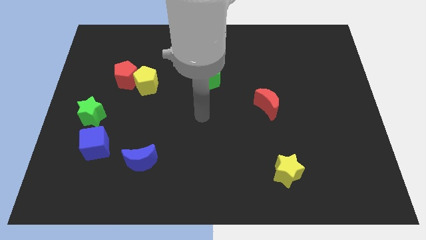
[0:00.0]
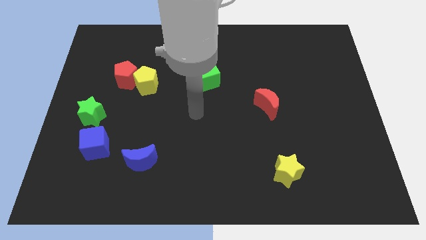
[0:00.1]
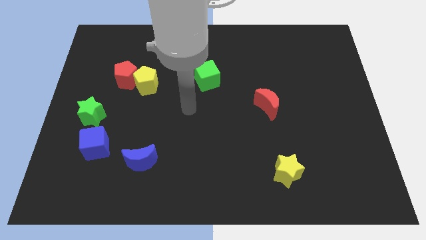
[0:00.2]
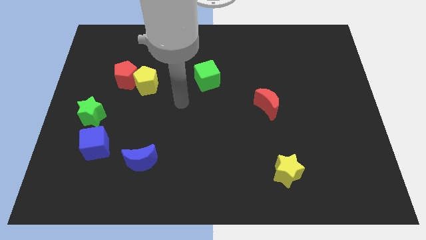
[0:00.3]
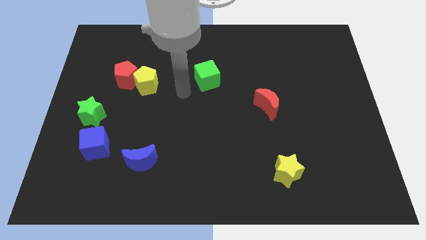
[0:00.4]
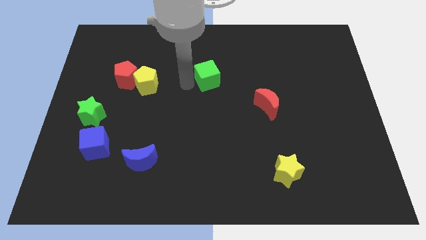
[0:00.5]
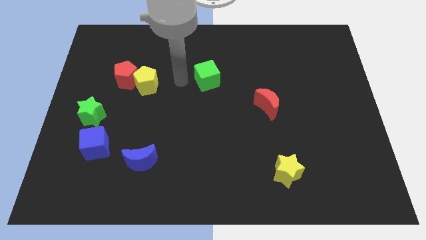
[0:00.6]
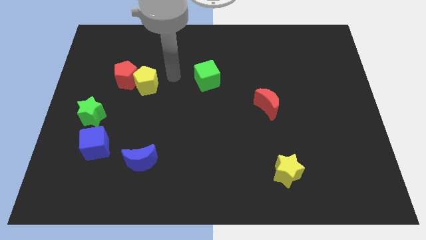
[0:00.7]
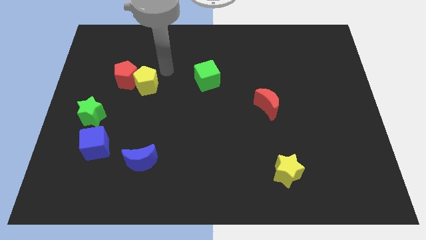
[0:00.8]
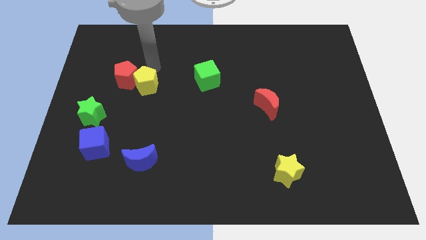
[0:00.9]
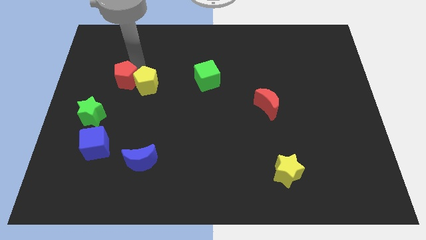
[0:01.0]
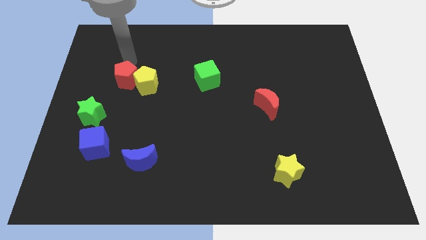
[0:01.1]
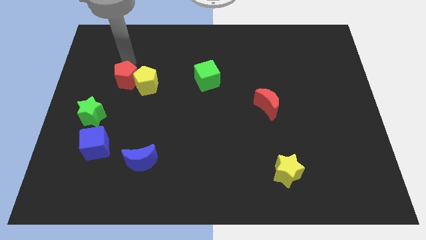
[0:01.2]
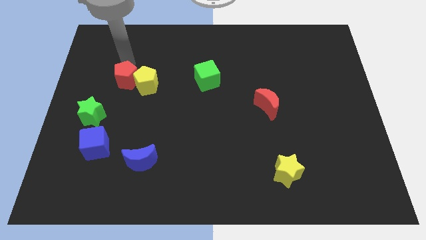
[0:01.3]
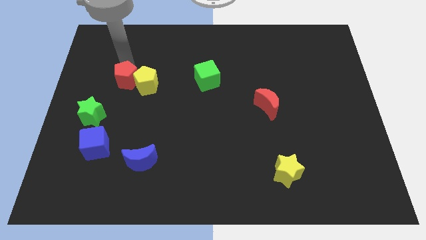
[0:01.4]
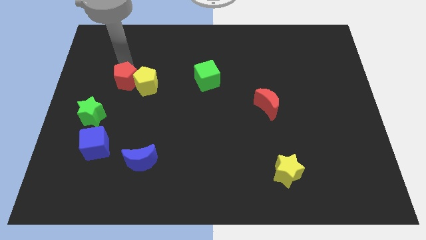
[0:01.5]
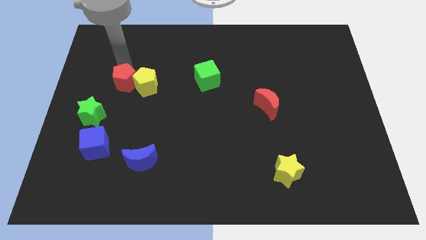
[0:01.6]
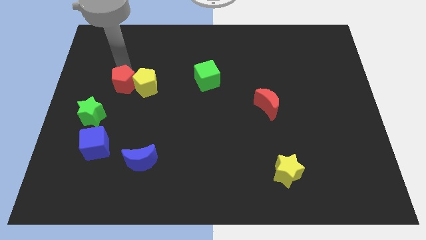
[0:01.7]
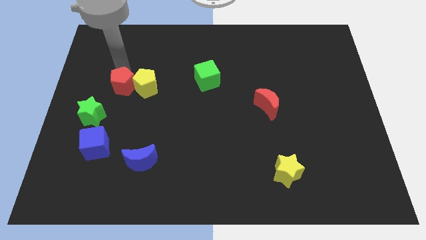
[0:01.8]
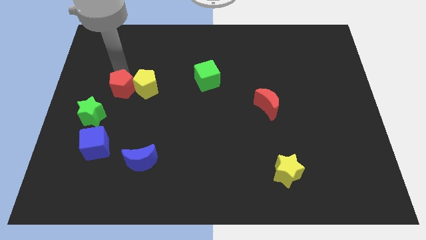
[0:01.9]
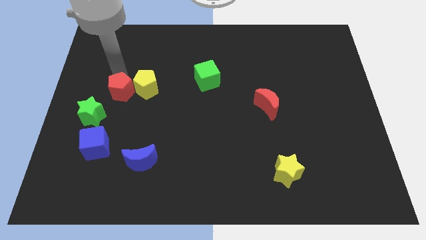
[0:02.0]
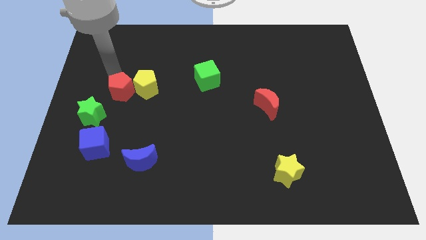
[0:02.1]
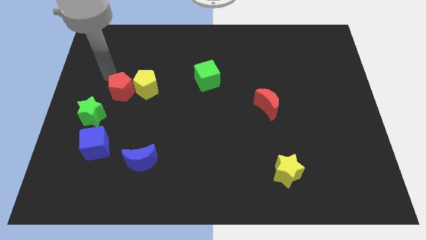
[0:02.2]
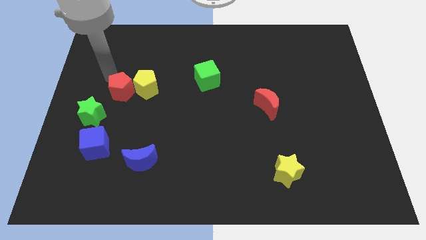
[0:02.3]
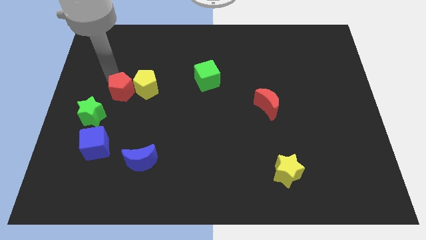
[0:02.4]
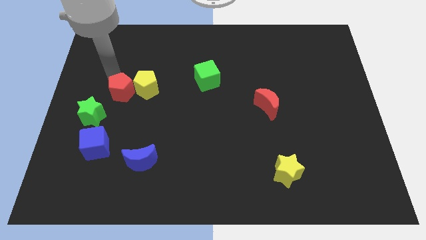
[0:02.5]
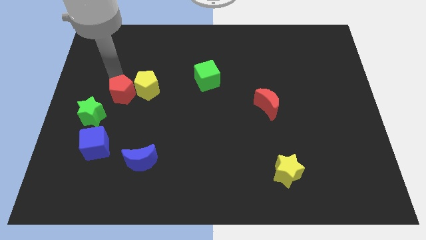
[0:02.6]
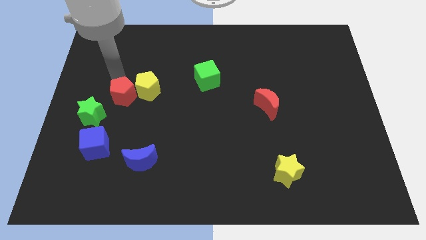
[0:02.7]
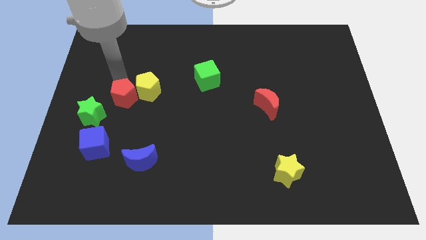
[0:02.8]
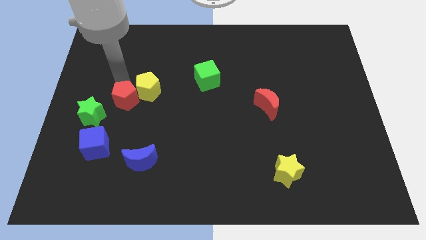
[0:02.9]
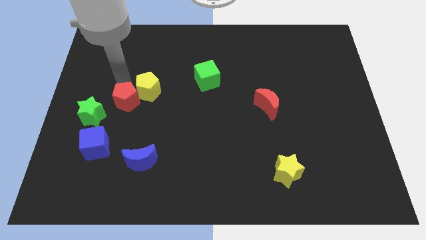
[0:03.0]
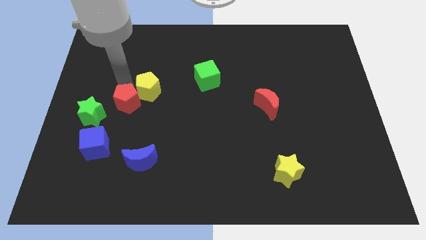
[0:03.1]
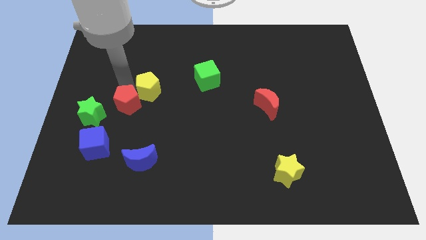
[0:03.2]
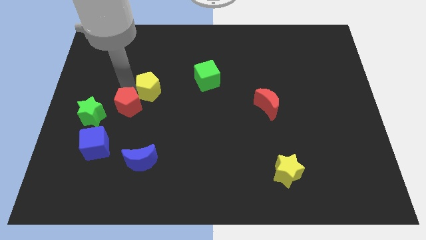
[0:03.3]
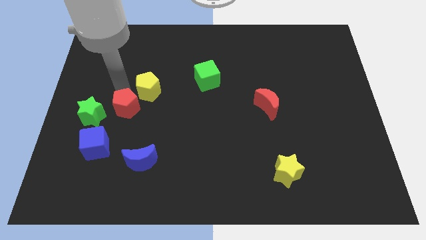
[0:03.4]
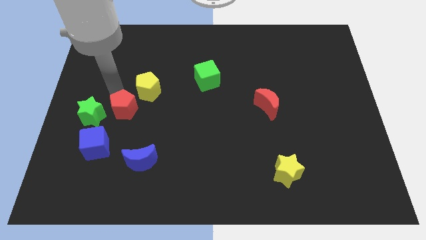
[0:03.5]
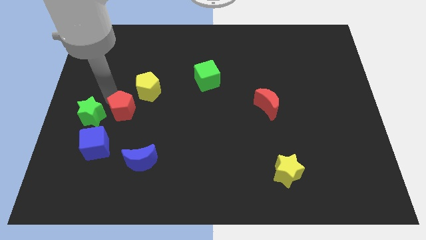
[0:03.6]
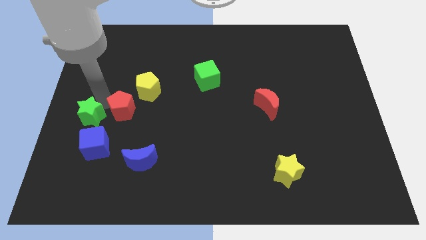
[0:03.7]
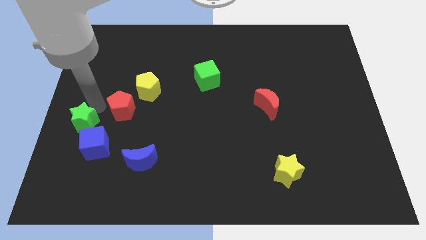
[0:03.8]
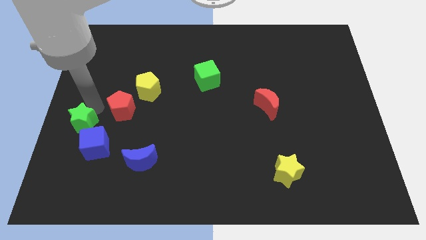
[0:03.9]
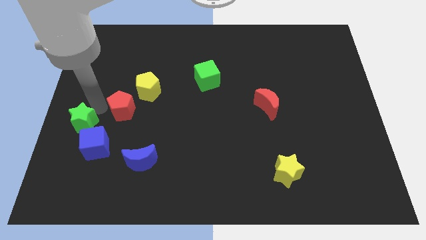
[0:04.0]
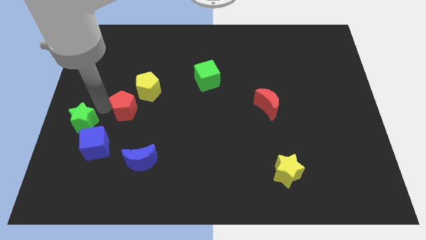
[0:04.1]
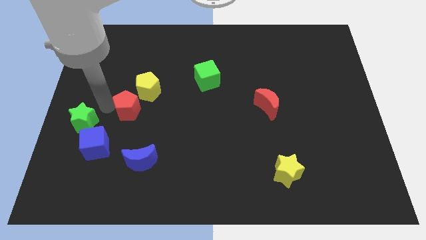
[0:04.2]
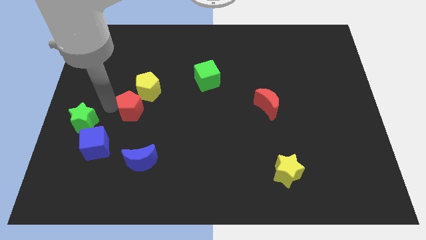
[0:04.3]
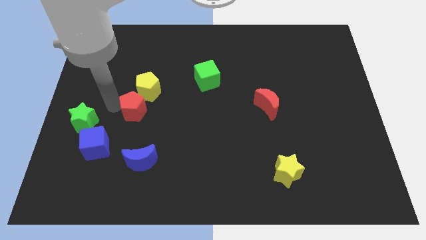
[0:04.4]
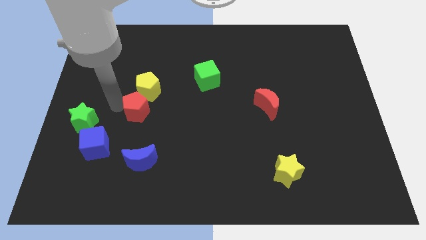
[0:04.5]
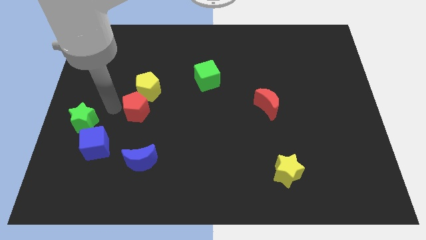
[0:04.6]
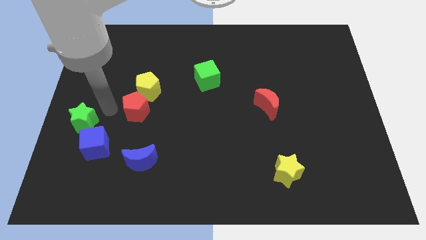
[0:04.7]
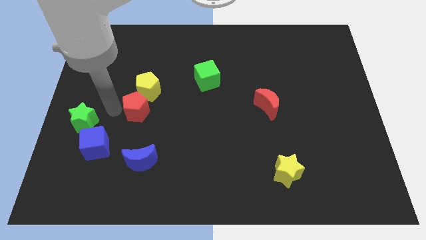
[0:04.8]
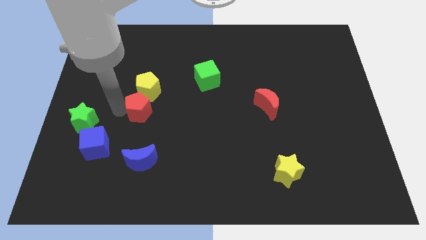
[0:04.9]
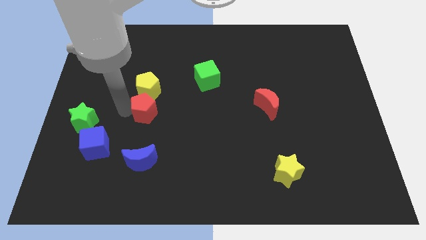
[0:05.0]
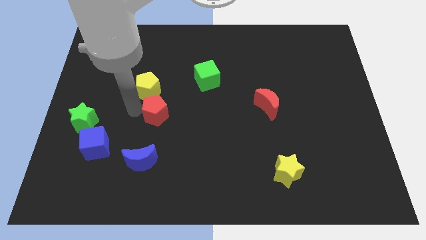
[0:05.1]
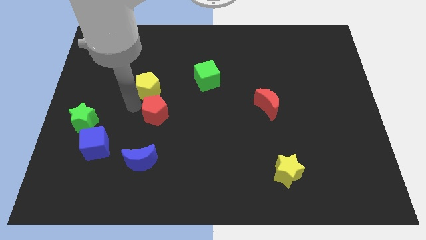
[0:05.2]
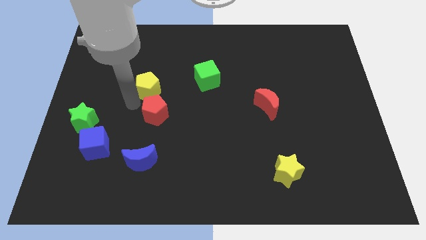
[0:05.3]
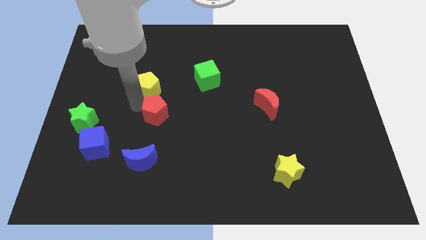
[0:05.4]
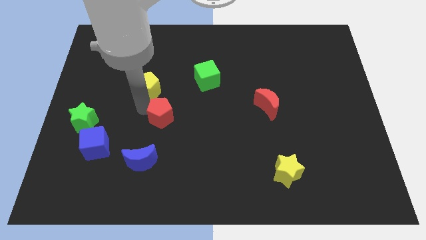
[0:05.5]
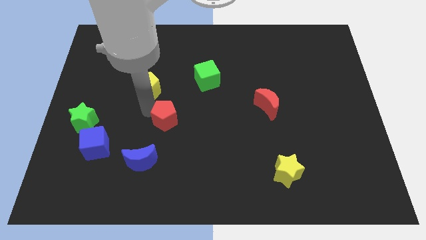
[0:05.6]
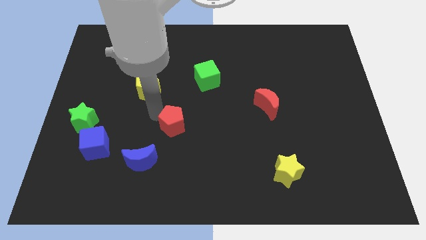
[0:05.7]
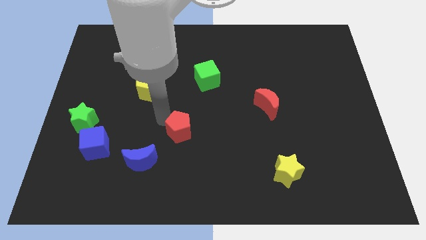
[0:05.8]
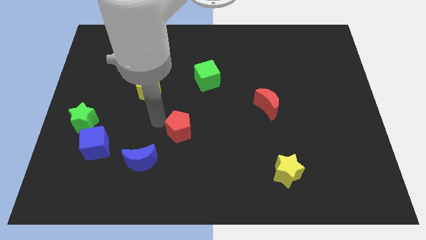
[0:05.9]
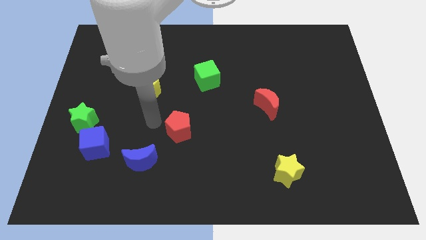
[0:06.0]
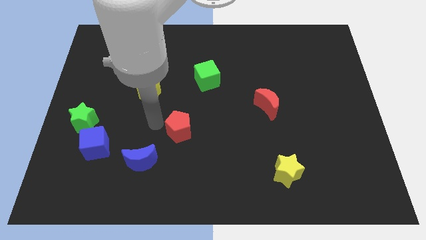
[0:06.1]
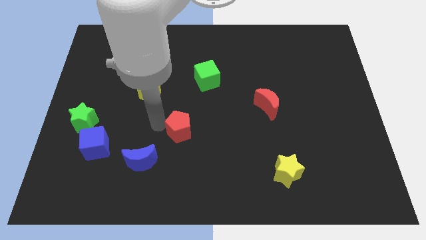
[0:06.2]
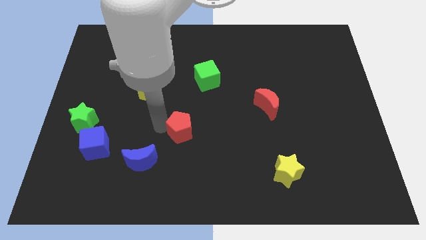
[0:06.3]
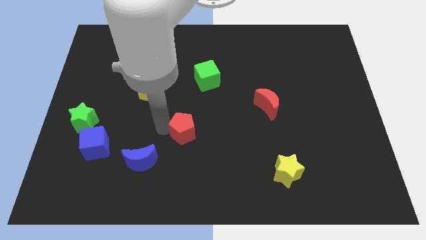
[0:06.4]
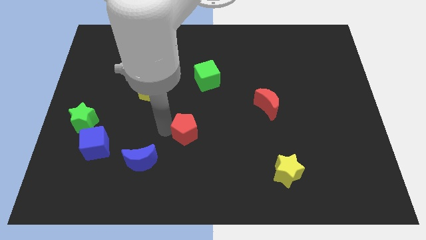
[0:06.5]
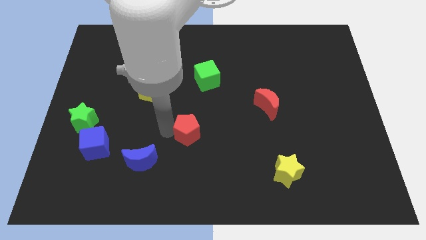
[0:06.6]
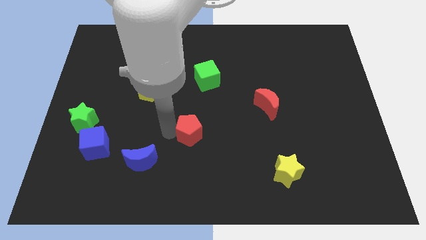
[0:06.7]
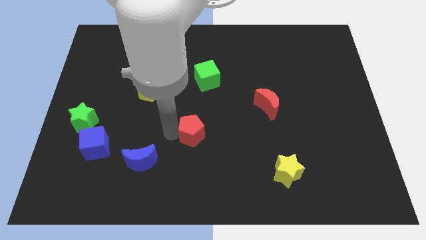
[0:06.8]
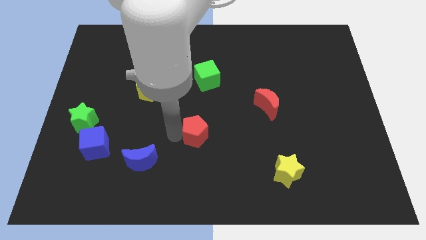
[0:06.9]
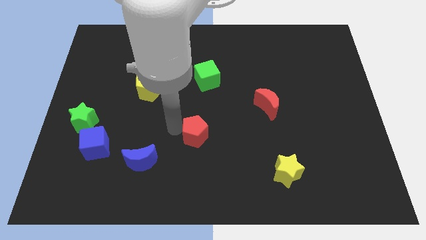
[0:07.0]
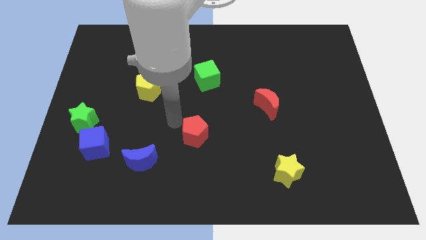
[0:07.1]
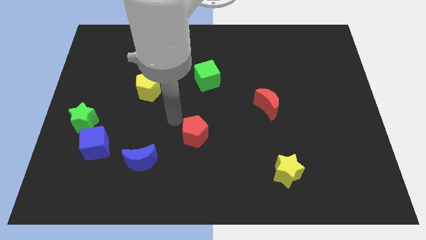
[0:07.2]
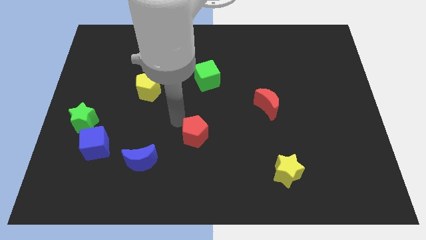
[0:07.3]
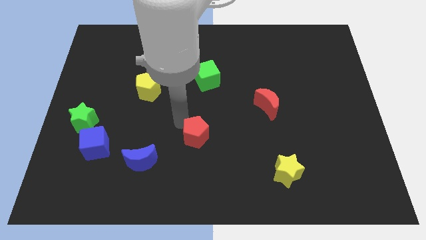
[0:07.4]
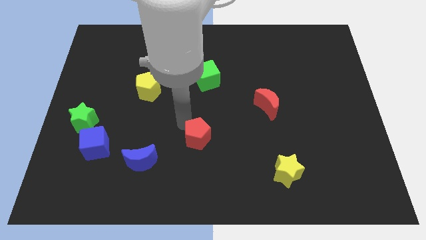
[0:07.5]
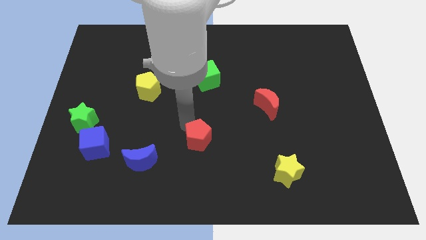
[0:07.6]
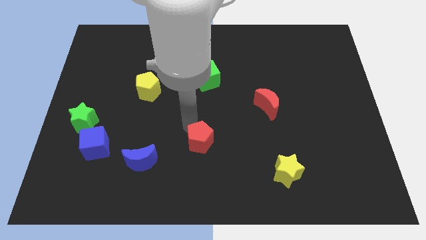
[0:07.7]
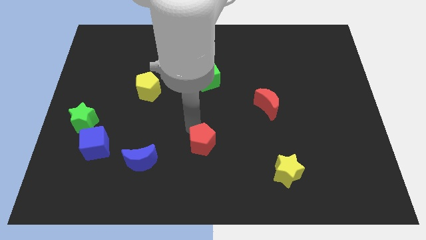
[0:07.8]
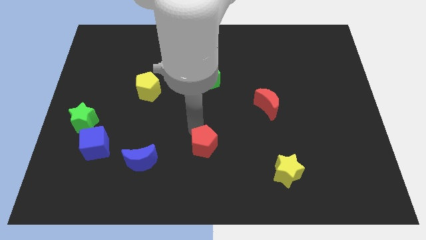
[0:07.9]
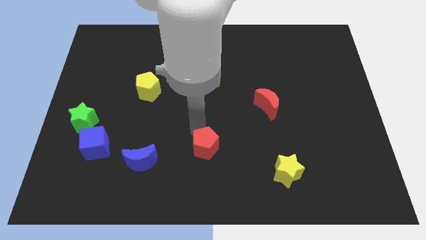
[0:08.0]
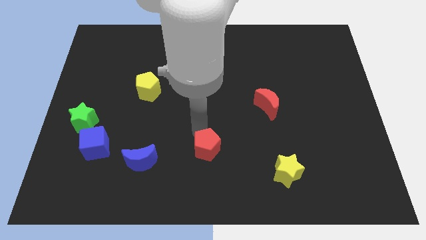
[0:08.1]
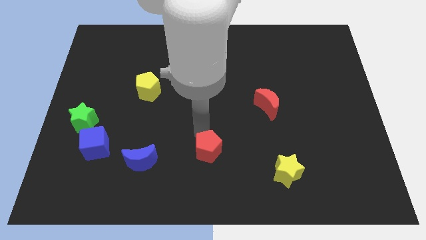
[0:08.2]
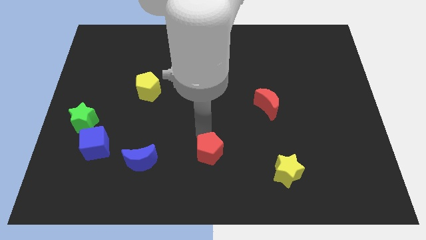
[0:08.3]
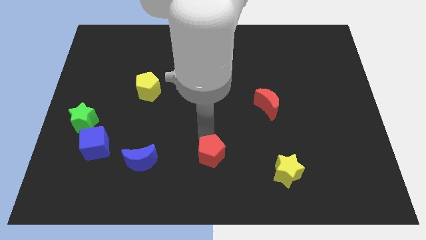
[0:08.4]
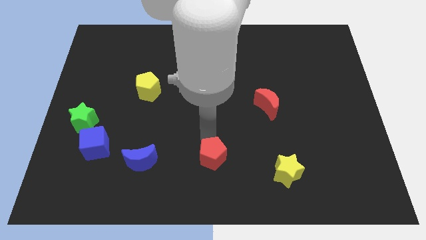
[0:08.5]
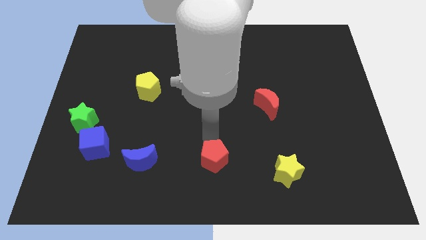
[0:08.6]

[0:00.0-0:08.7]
slide the red pentagon to the left of the yellow star
